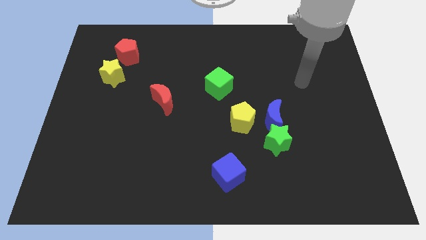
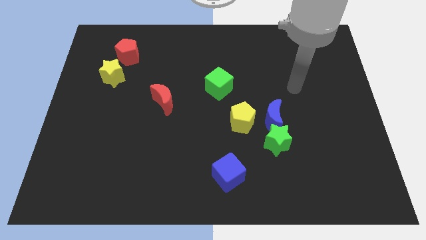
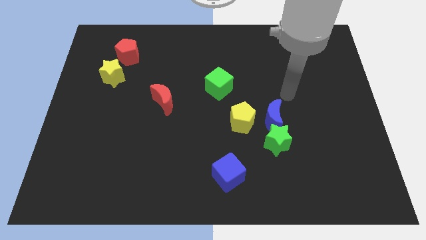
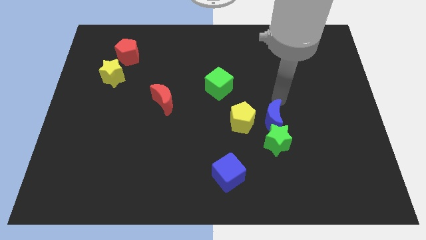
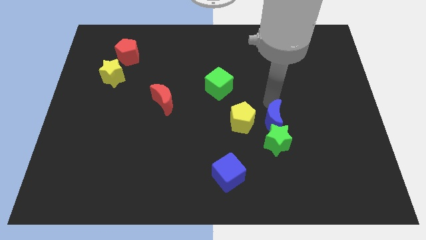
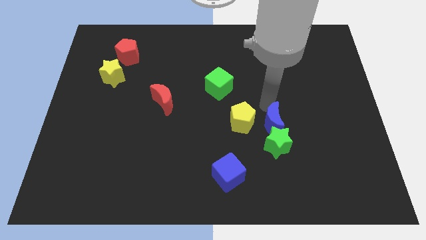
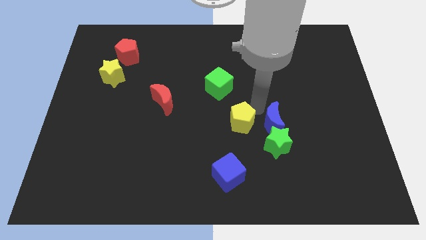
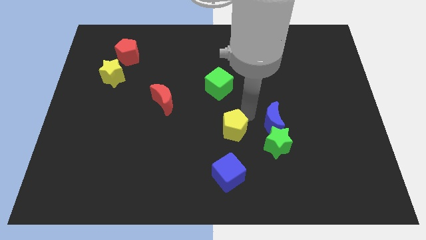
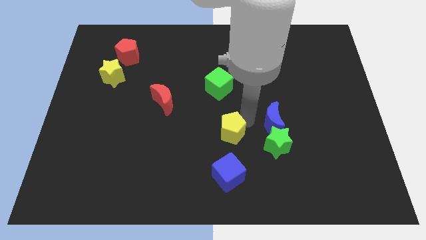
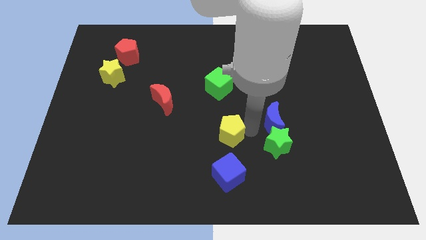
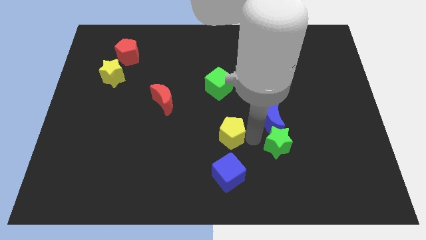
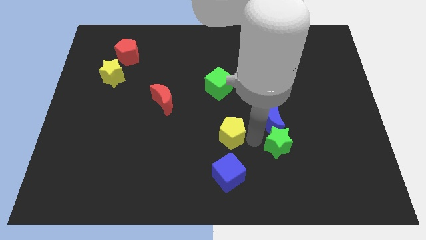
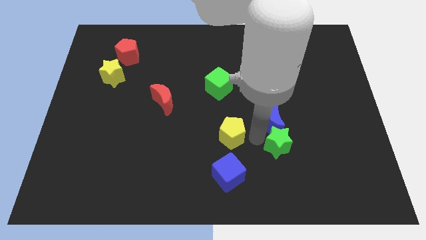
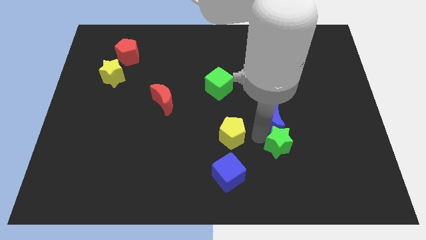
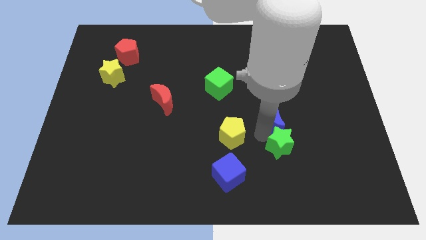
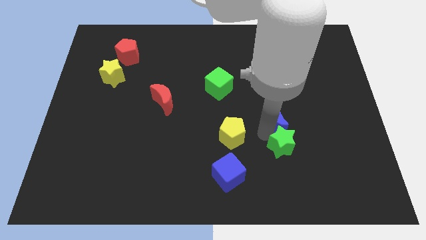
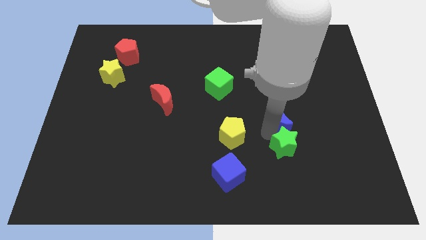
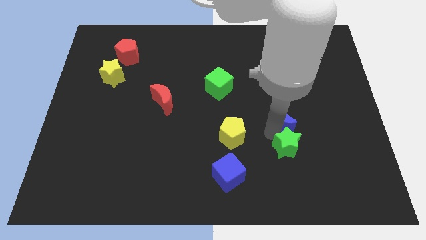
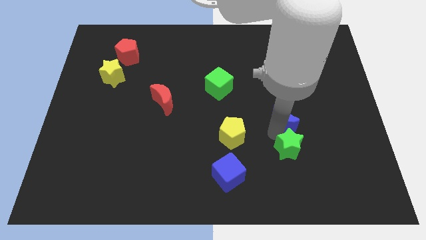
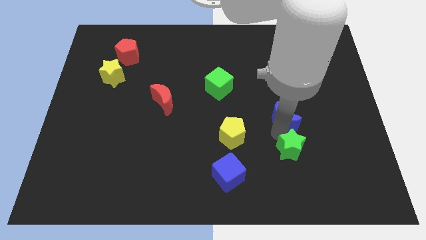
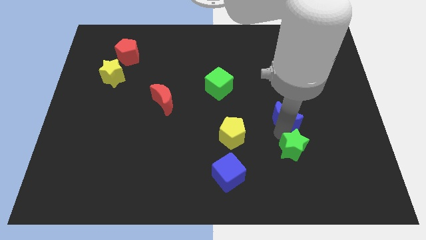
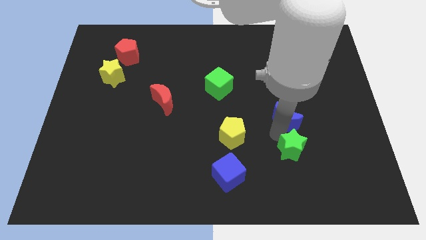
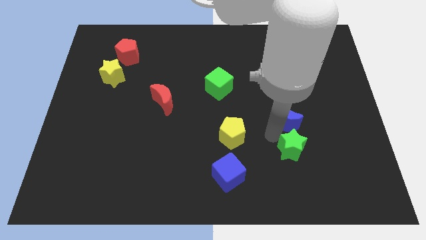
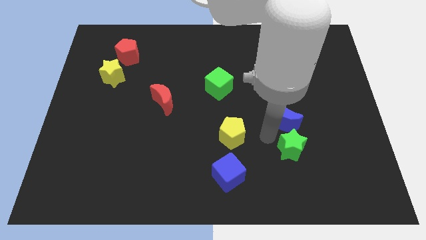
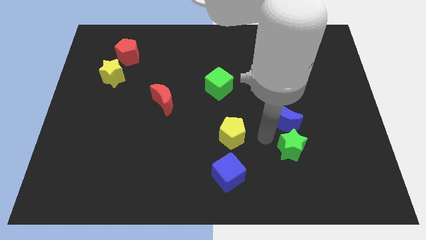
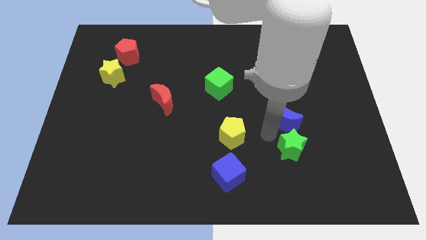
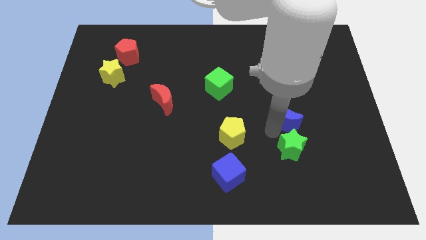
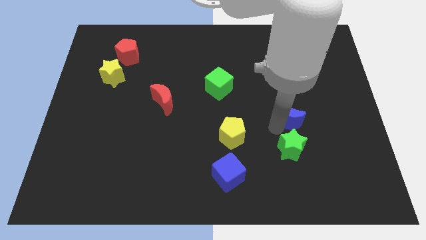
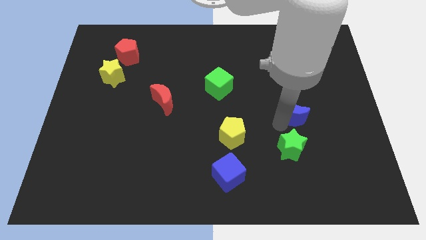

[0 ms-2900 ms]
pull the blue moon apart from the green star and yellow pentagon

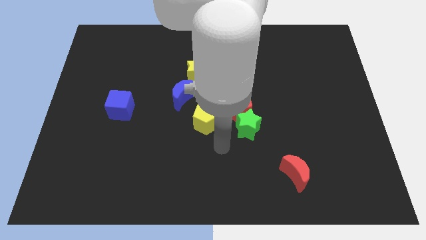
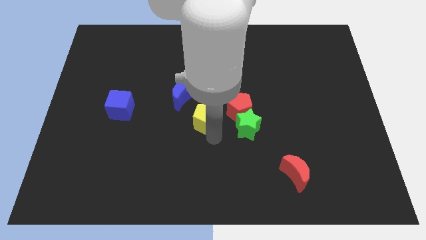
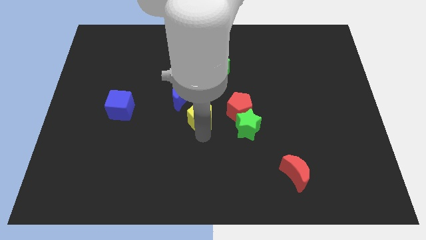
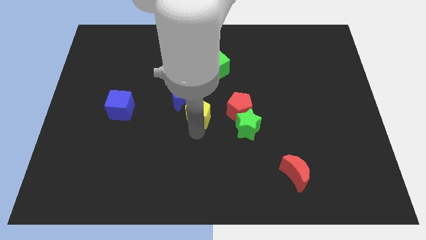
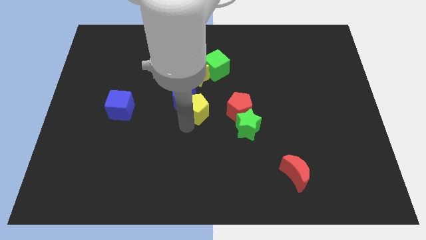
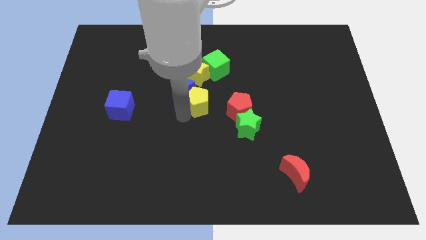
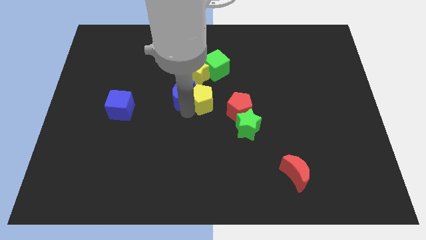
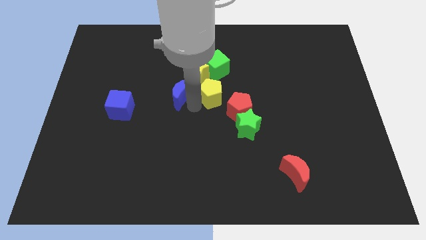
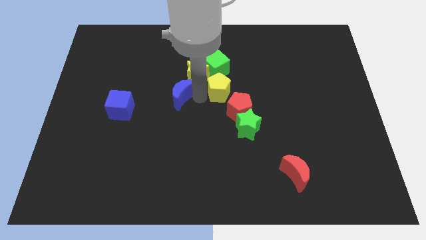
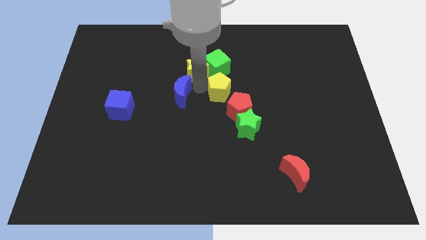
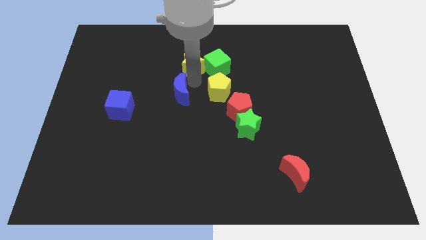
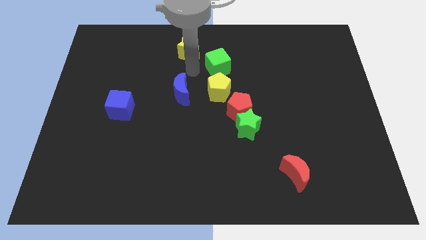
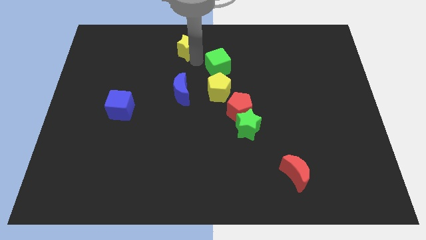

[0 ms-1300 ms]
pull the green cube apart from the yellow star

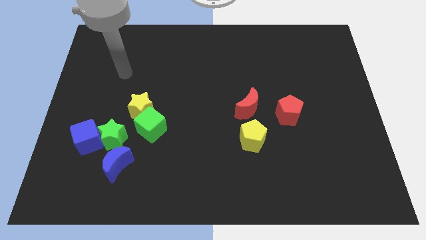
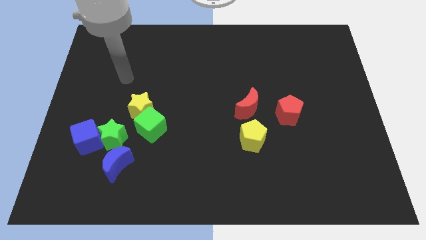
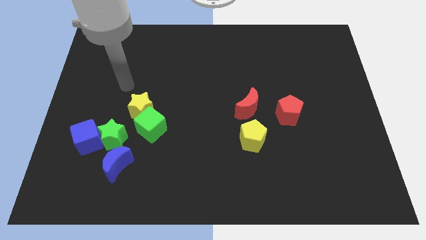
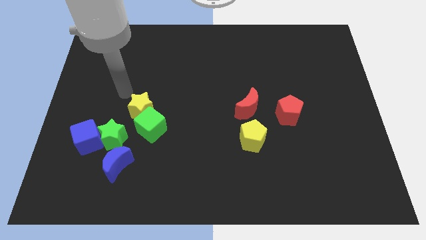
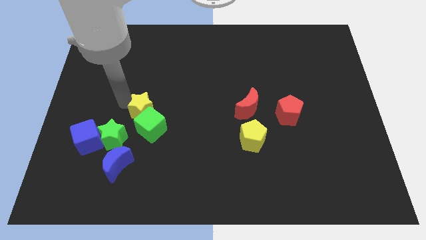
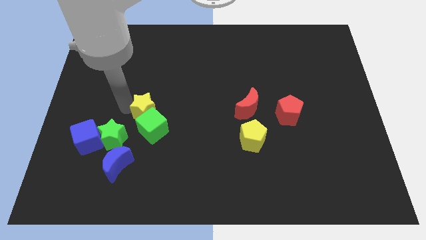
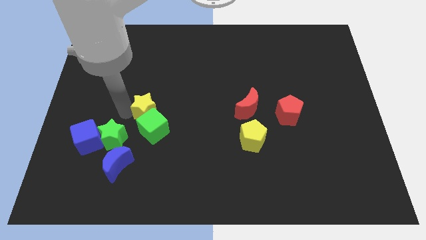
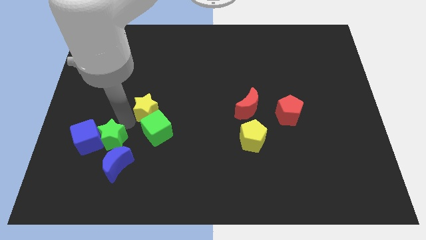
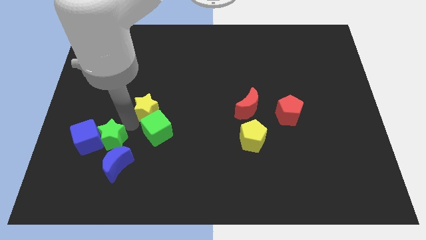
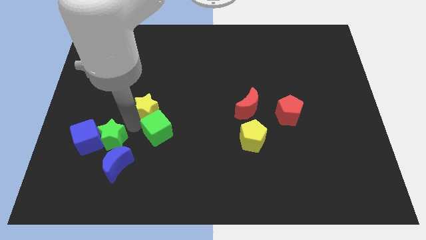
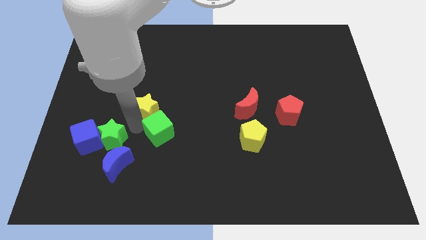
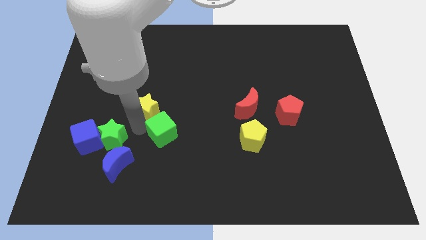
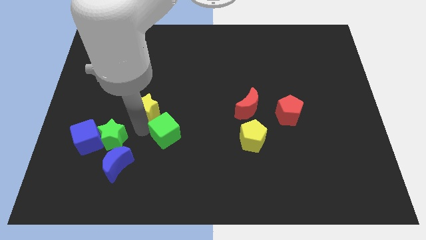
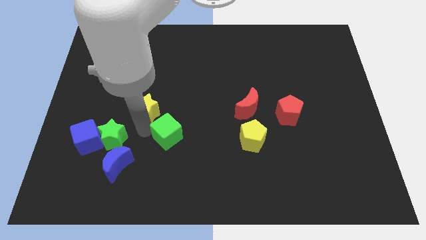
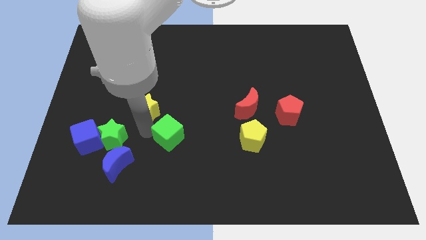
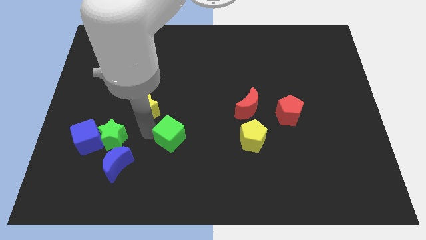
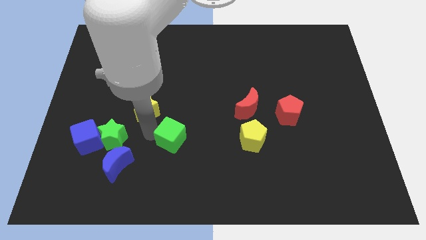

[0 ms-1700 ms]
separate the green cube from the yellow star and green star

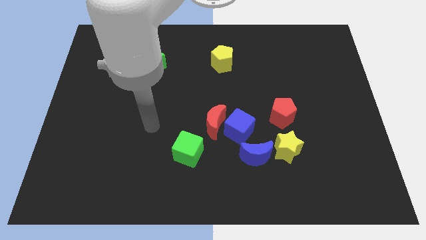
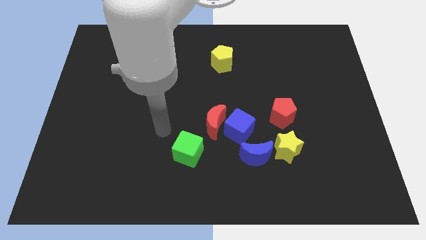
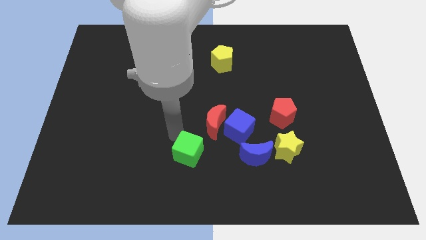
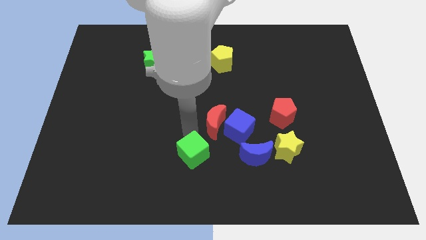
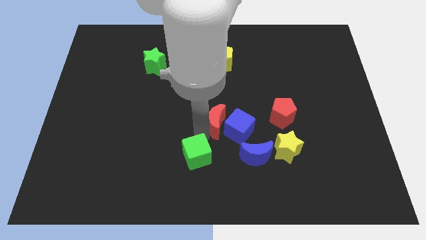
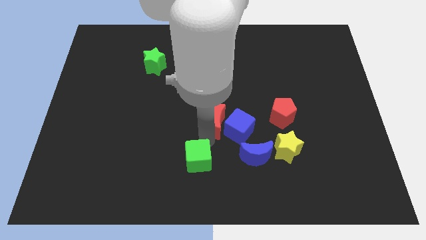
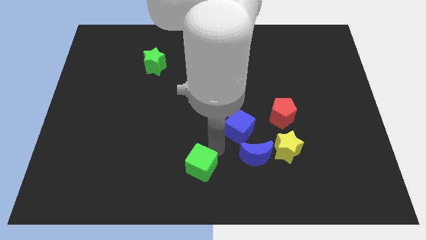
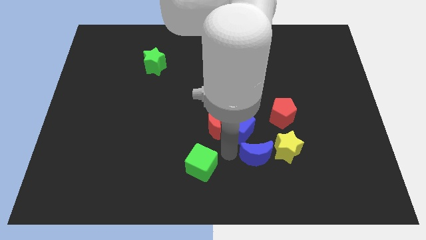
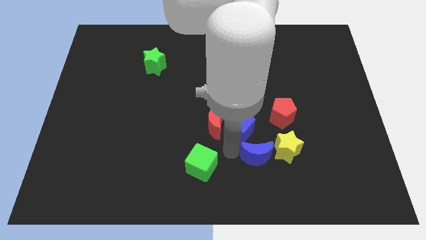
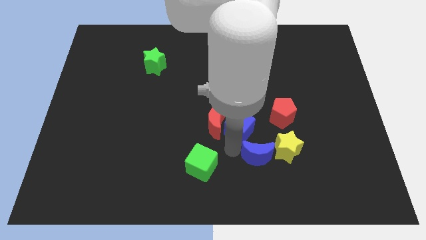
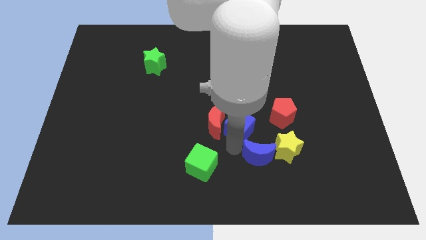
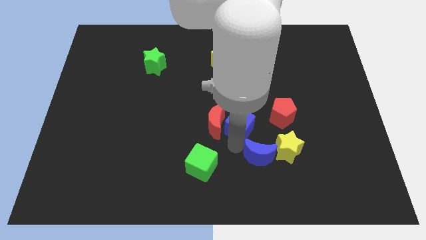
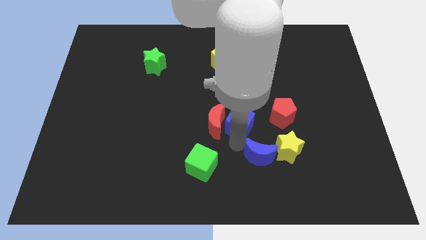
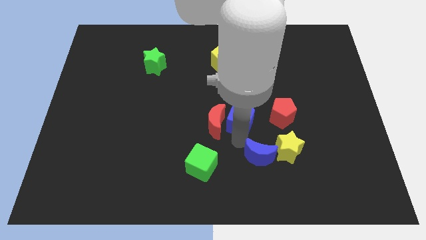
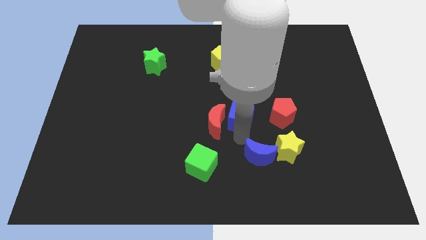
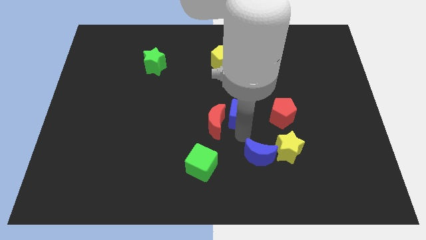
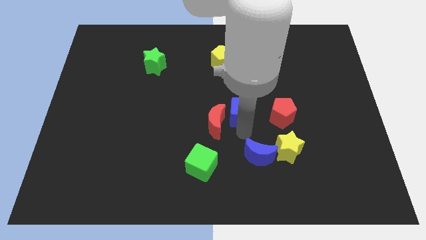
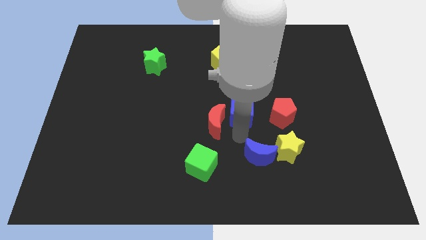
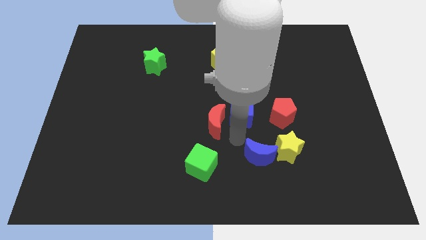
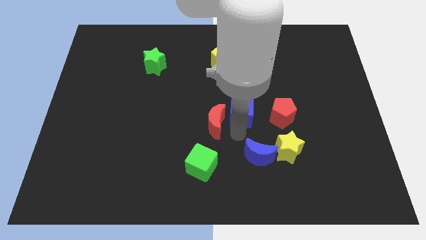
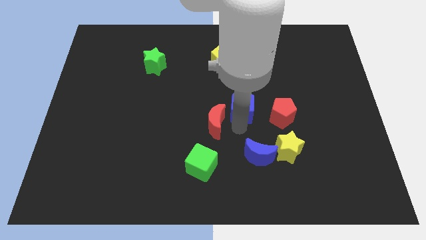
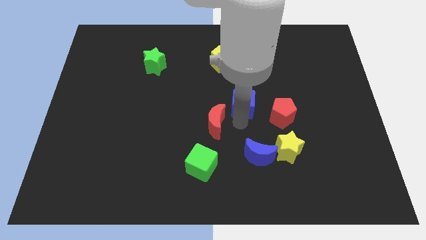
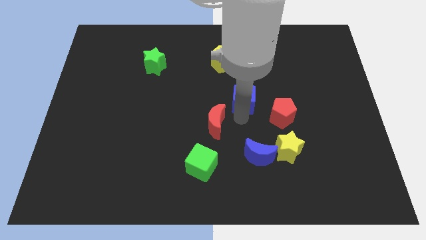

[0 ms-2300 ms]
separate the blue cube from the red moon and blue moon

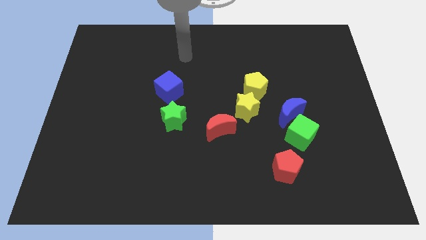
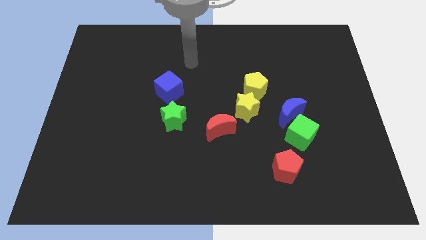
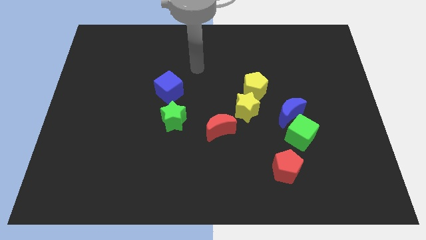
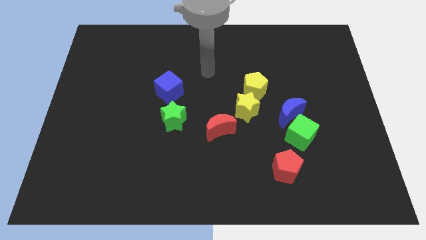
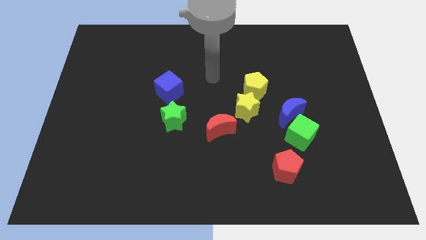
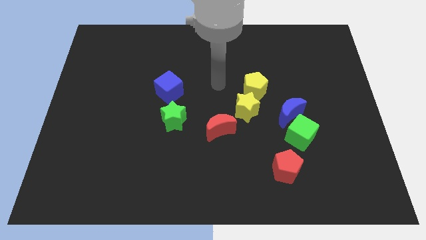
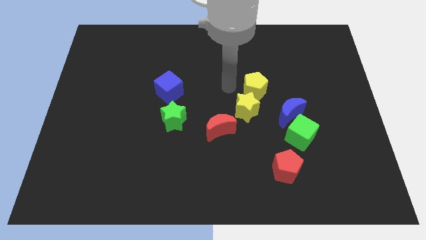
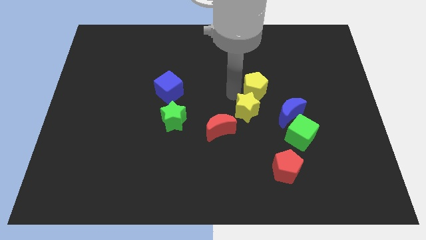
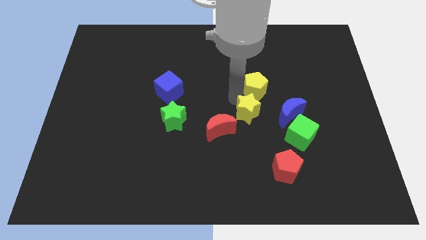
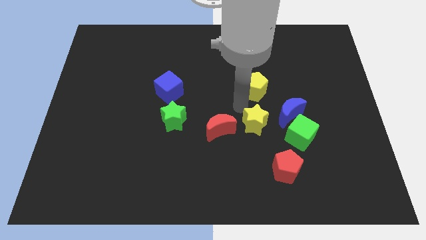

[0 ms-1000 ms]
move the yellow pentagon away from the yellow star

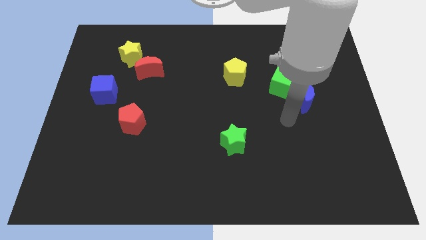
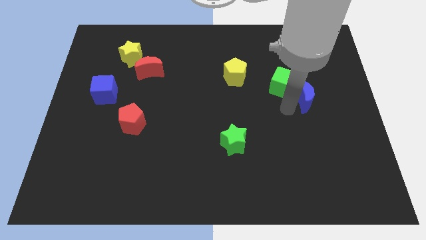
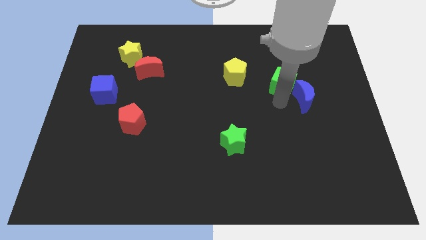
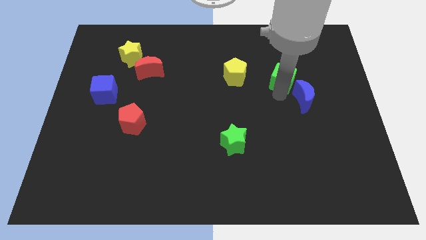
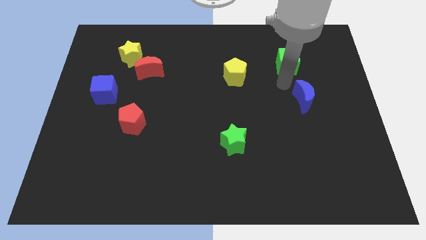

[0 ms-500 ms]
move the blue moon away from the green cube
